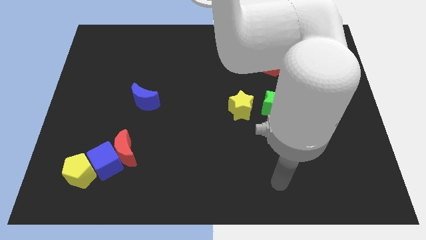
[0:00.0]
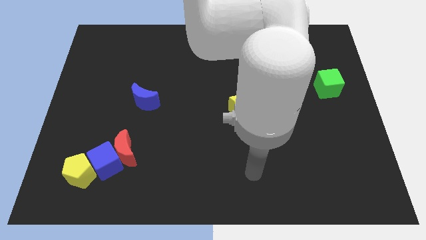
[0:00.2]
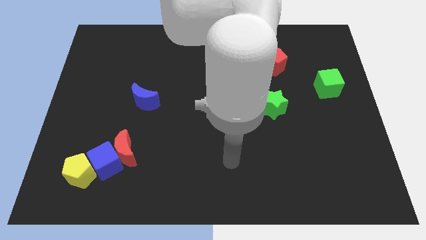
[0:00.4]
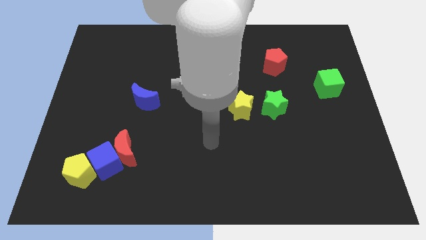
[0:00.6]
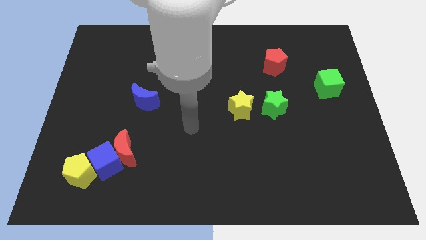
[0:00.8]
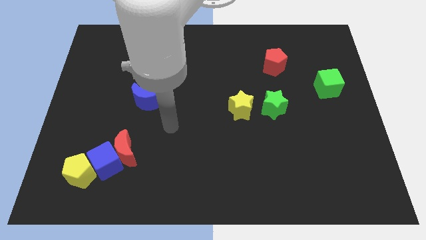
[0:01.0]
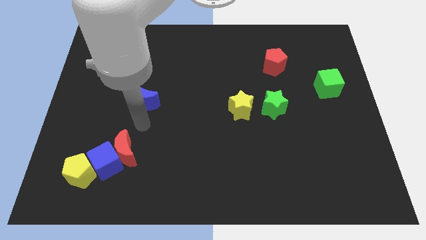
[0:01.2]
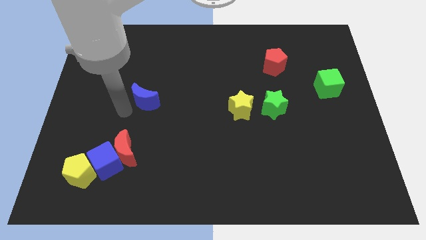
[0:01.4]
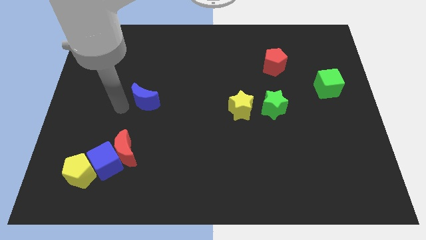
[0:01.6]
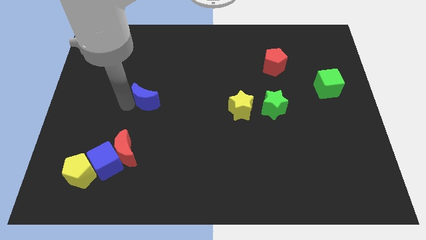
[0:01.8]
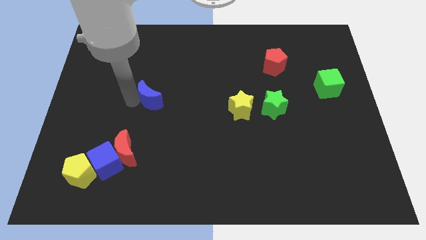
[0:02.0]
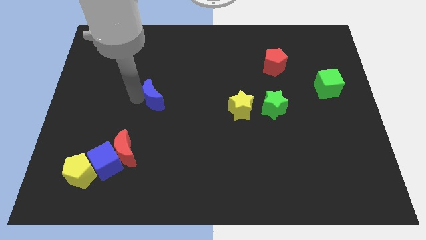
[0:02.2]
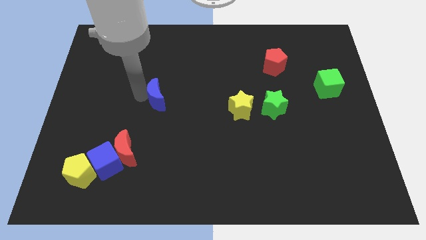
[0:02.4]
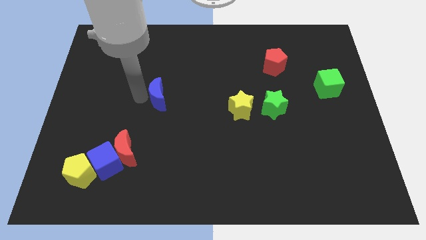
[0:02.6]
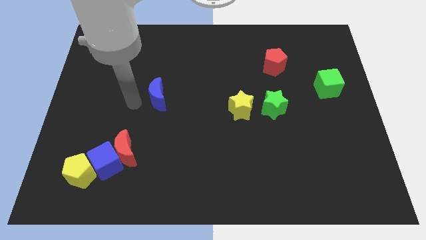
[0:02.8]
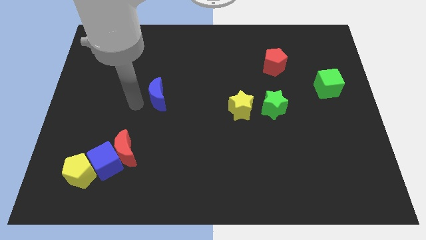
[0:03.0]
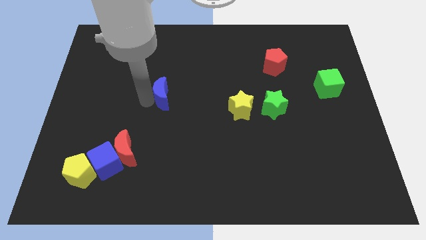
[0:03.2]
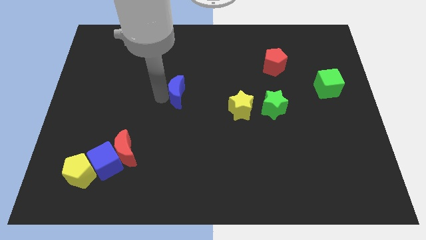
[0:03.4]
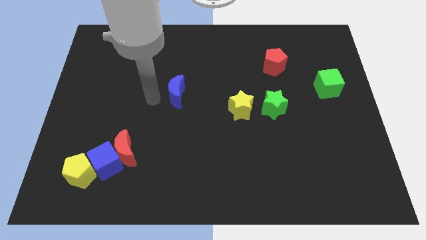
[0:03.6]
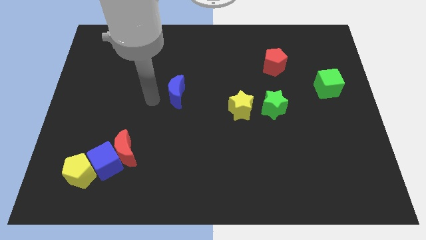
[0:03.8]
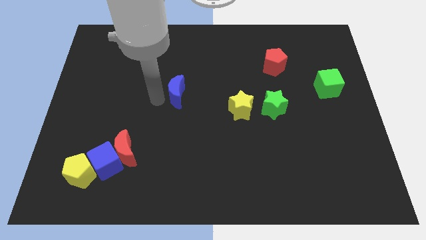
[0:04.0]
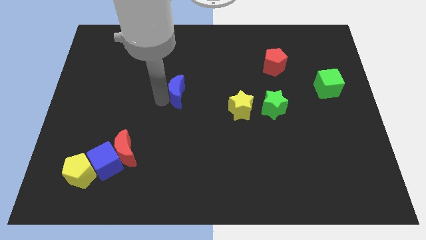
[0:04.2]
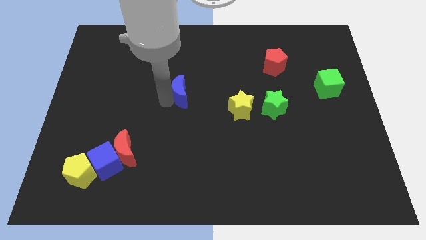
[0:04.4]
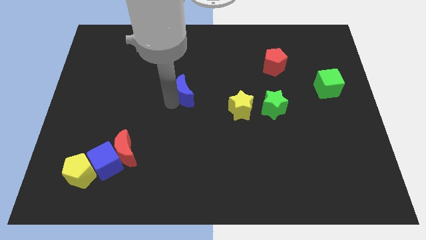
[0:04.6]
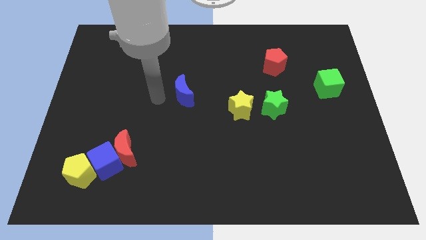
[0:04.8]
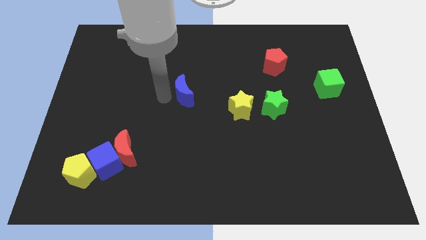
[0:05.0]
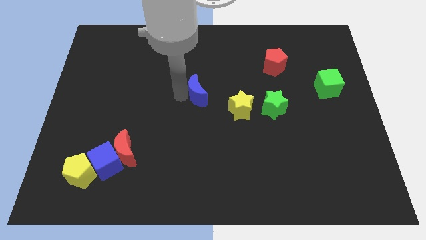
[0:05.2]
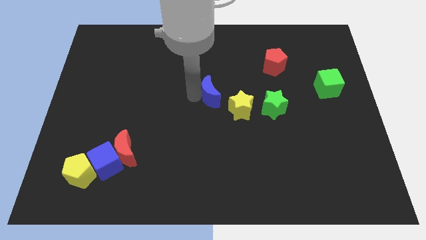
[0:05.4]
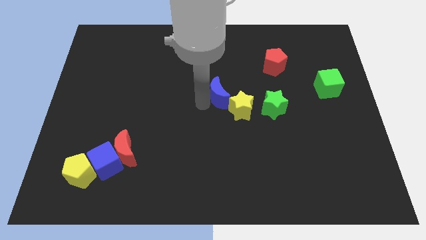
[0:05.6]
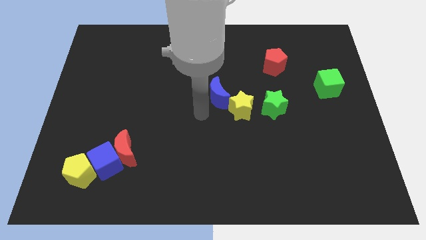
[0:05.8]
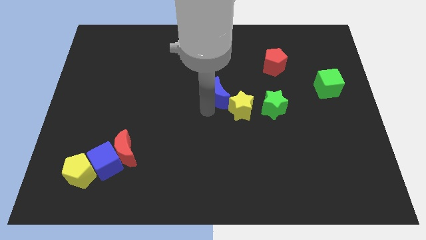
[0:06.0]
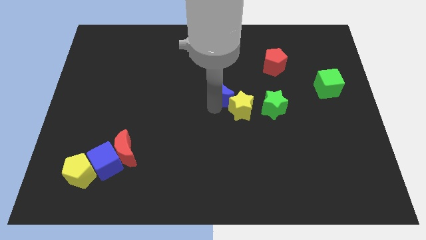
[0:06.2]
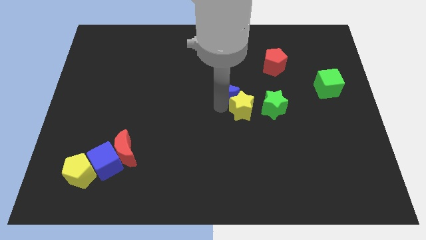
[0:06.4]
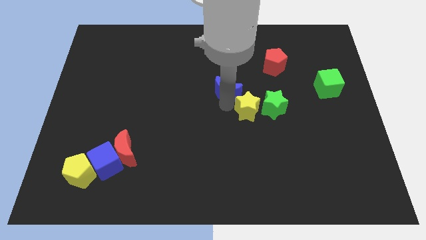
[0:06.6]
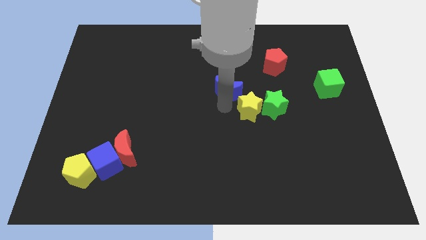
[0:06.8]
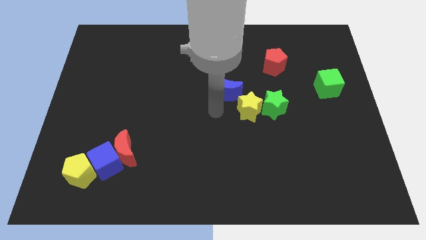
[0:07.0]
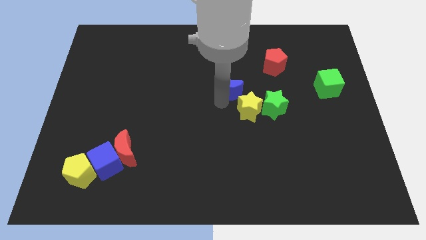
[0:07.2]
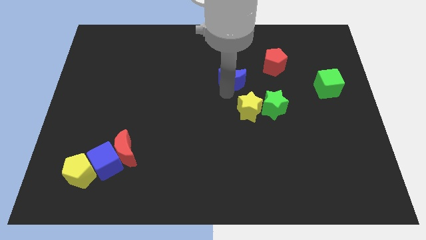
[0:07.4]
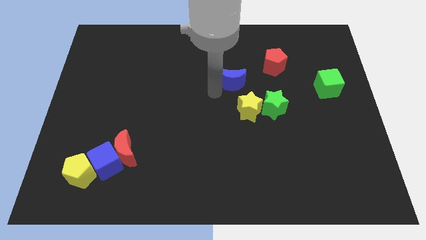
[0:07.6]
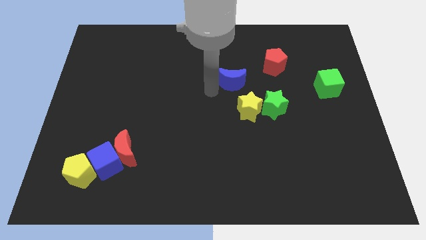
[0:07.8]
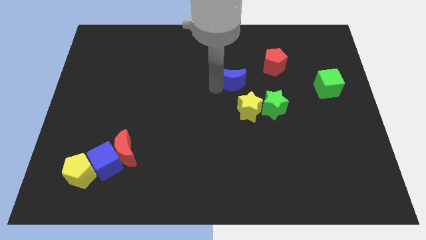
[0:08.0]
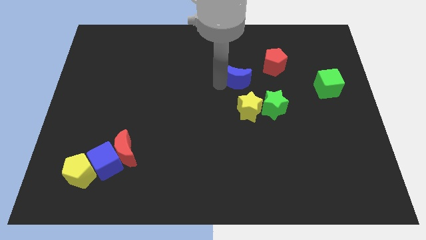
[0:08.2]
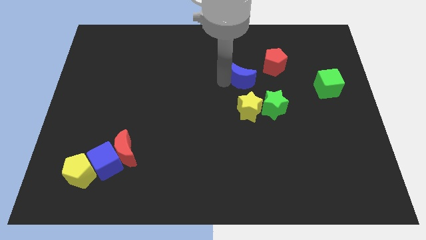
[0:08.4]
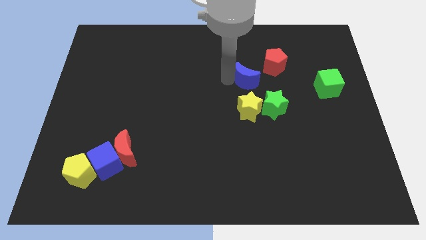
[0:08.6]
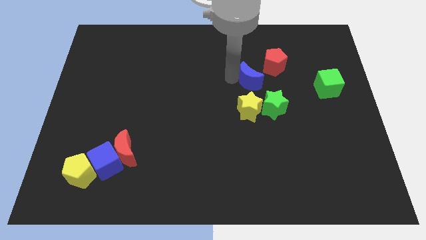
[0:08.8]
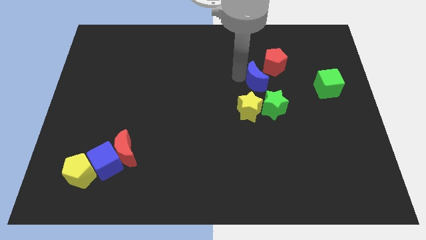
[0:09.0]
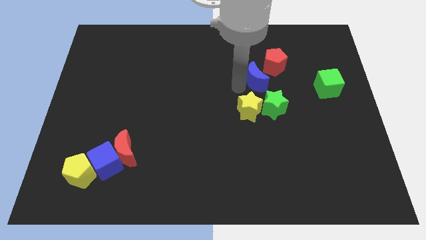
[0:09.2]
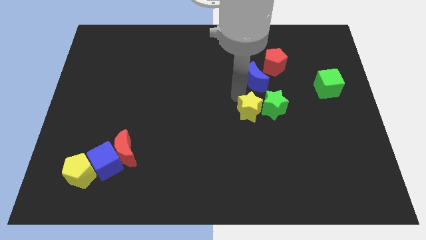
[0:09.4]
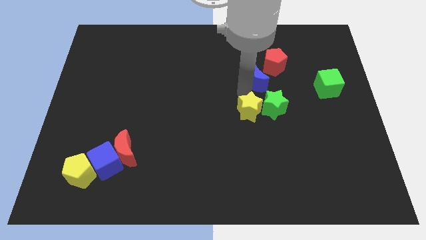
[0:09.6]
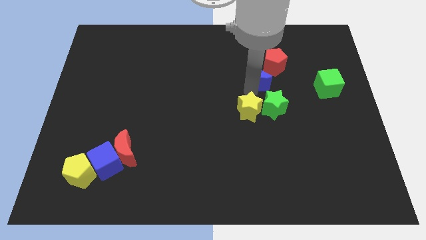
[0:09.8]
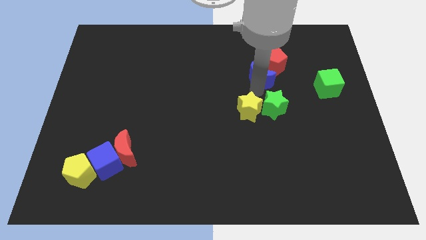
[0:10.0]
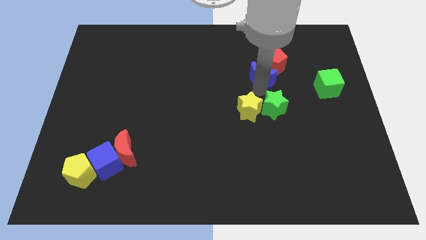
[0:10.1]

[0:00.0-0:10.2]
slide the blue moon towards the red pentagon
